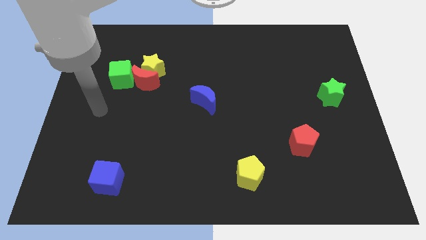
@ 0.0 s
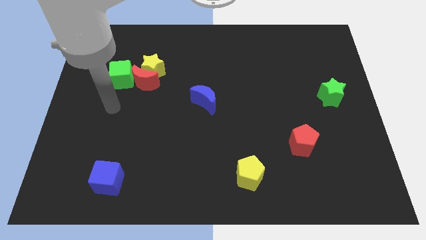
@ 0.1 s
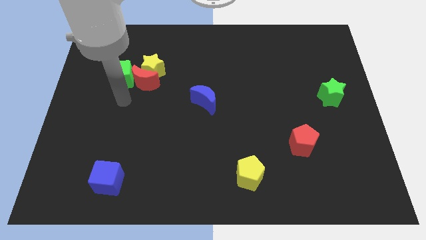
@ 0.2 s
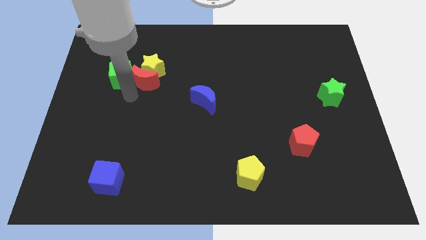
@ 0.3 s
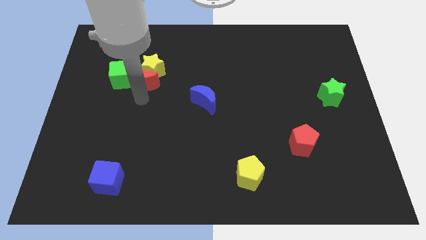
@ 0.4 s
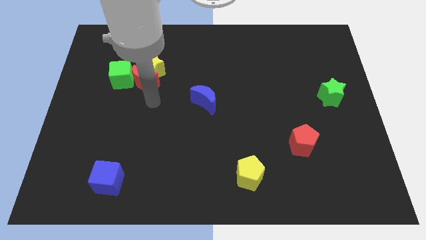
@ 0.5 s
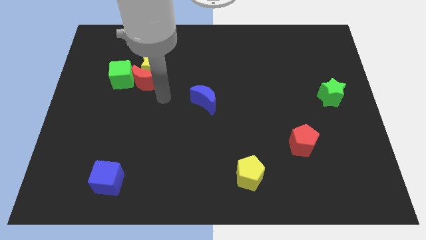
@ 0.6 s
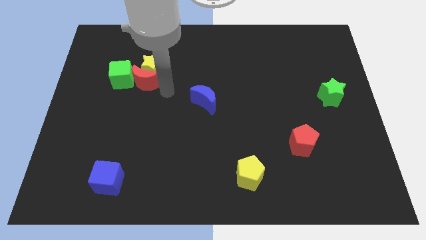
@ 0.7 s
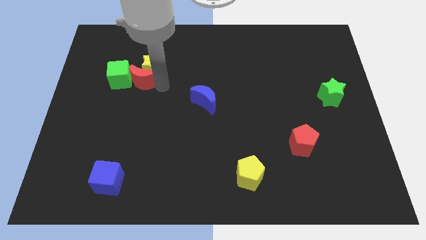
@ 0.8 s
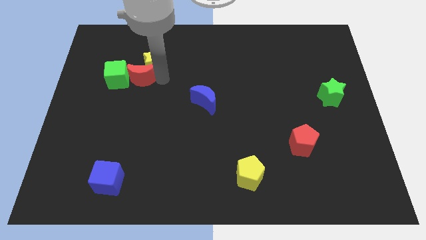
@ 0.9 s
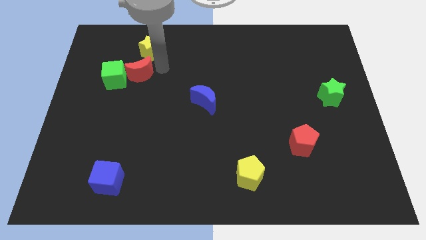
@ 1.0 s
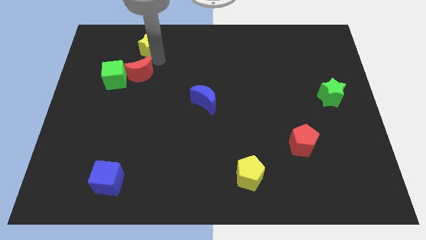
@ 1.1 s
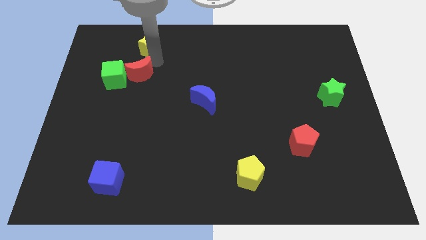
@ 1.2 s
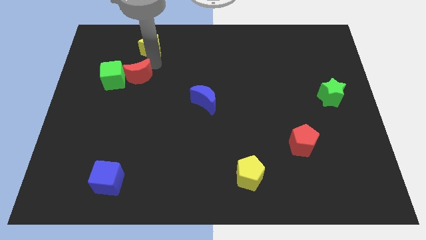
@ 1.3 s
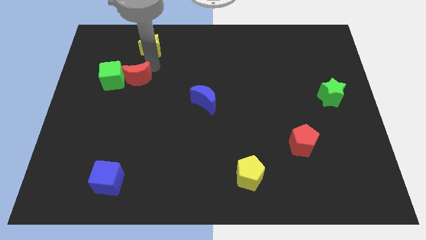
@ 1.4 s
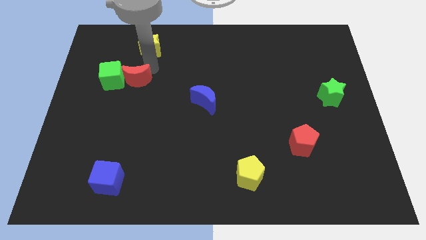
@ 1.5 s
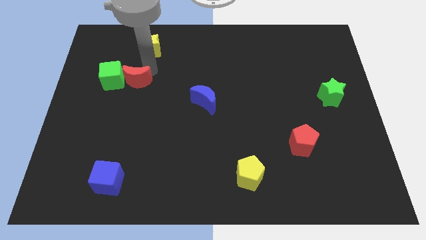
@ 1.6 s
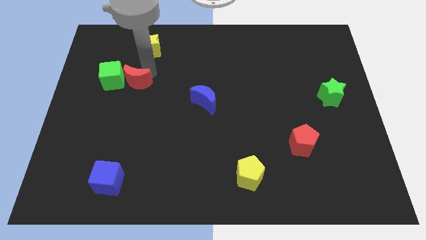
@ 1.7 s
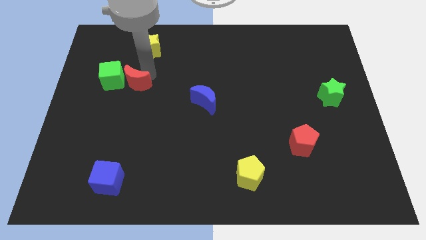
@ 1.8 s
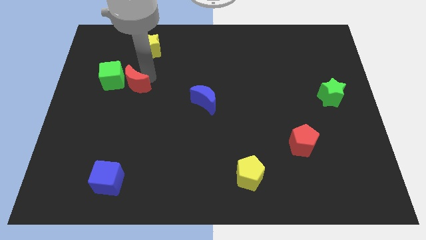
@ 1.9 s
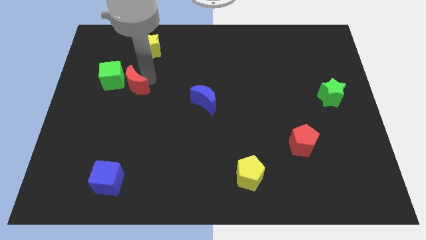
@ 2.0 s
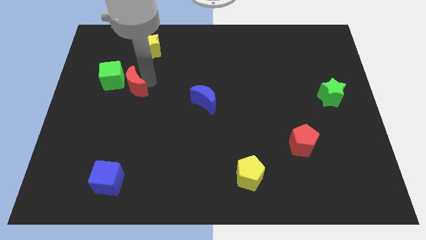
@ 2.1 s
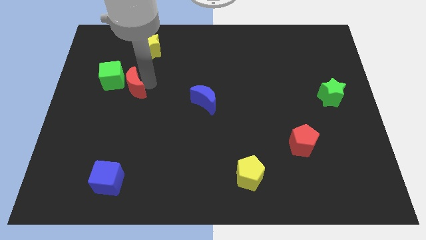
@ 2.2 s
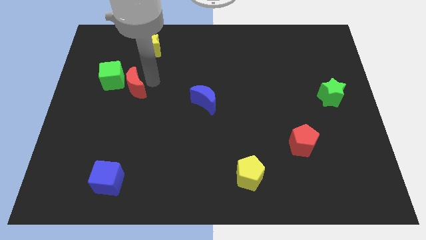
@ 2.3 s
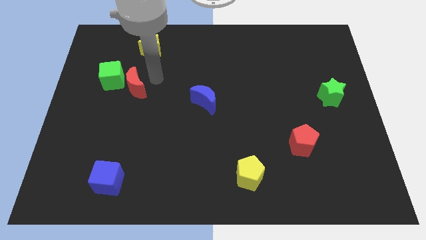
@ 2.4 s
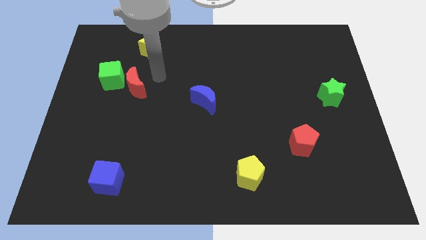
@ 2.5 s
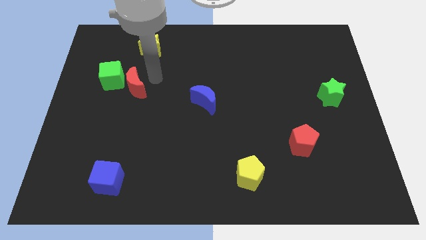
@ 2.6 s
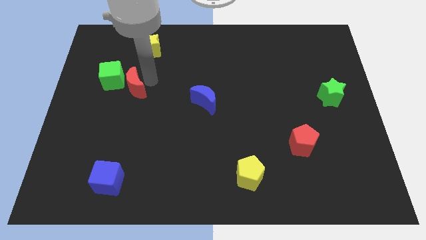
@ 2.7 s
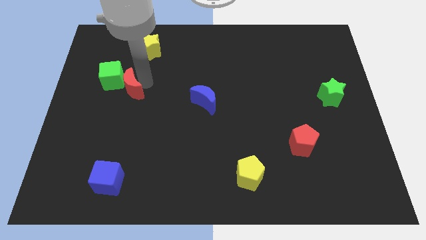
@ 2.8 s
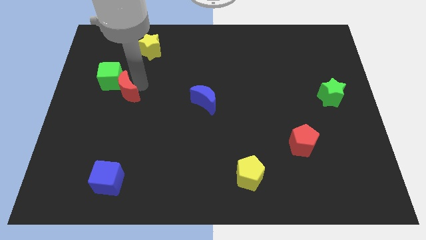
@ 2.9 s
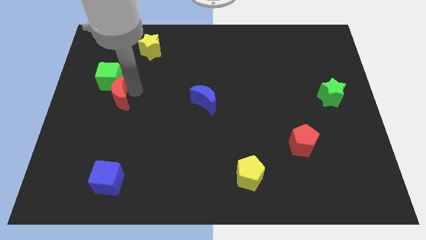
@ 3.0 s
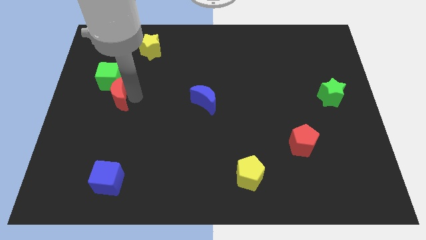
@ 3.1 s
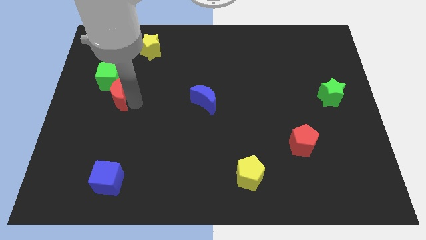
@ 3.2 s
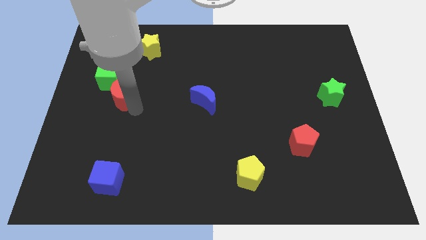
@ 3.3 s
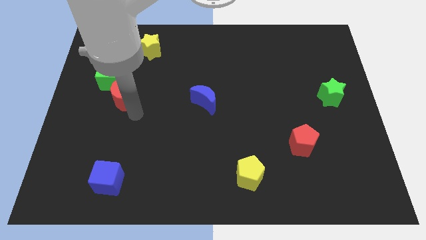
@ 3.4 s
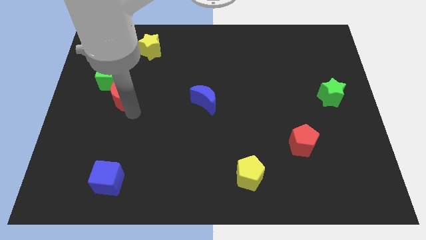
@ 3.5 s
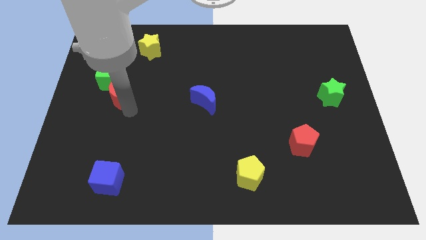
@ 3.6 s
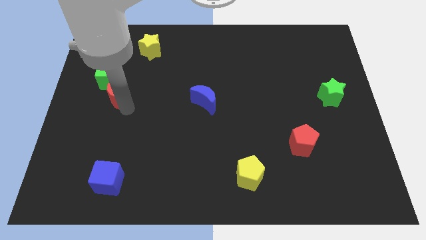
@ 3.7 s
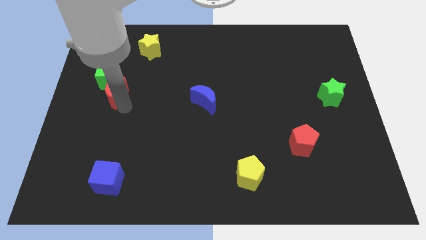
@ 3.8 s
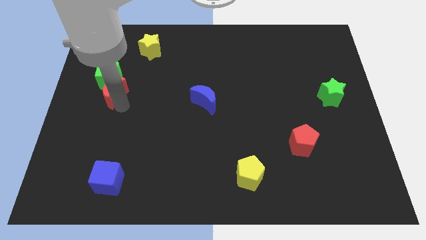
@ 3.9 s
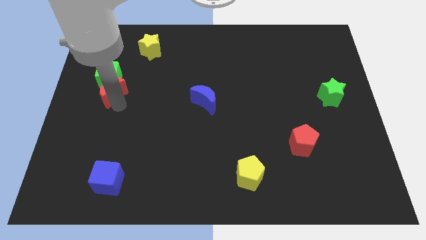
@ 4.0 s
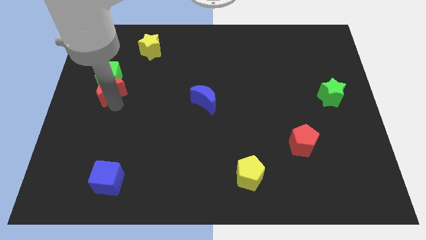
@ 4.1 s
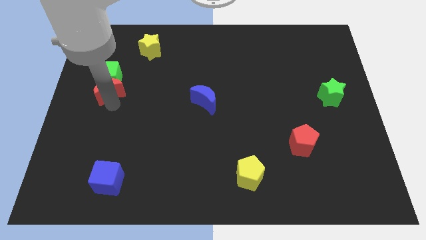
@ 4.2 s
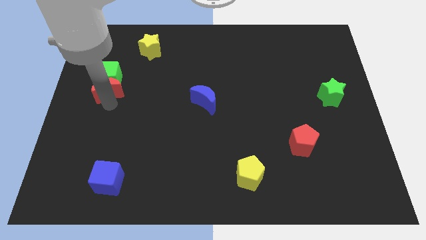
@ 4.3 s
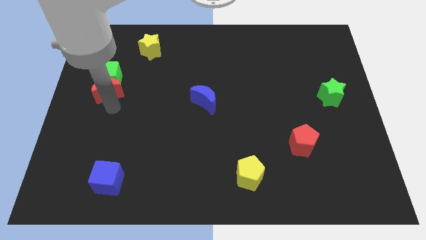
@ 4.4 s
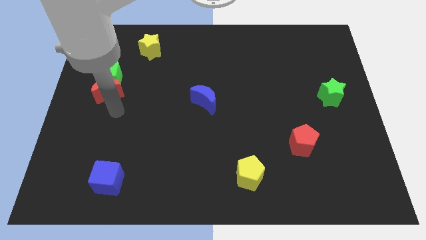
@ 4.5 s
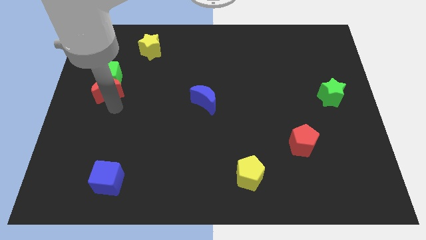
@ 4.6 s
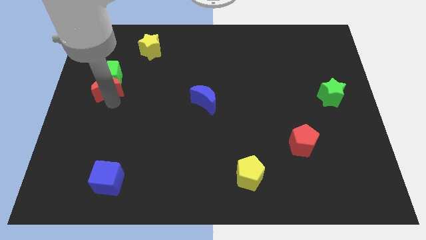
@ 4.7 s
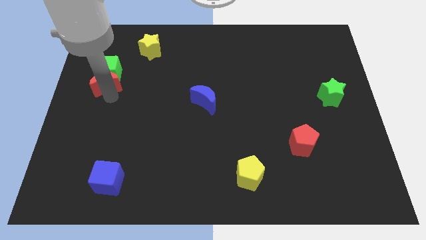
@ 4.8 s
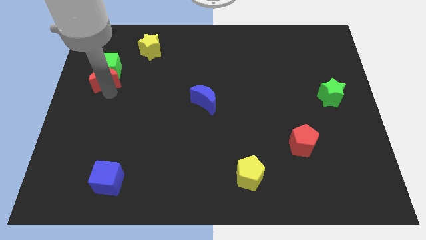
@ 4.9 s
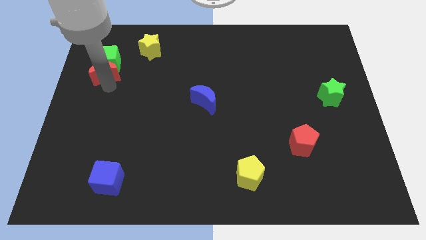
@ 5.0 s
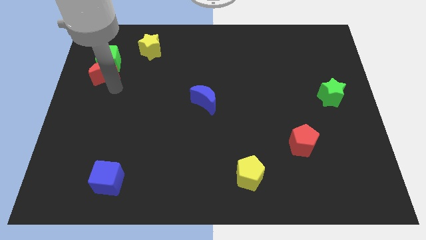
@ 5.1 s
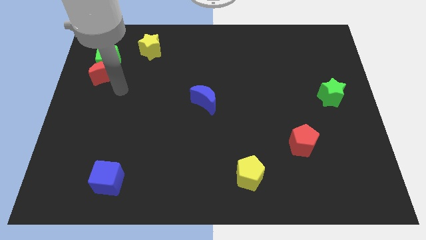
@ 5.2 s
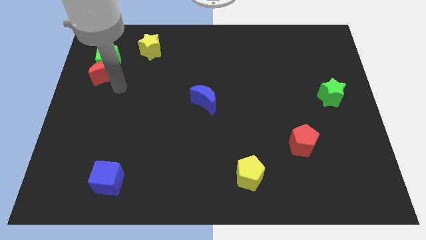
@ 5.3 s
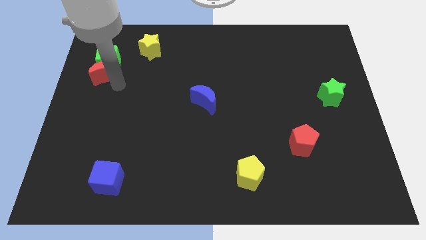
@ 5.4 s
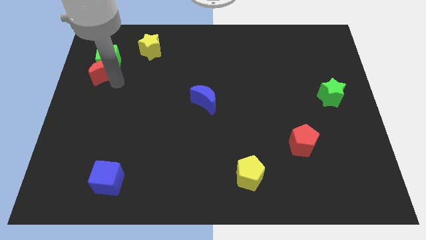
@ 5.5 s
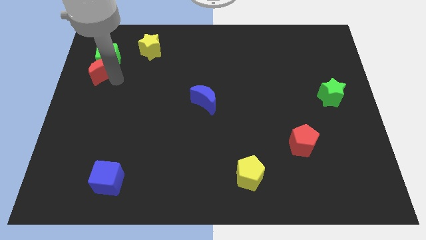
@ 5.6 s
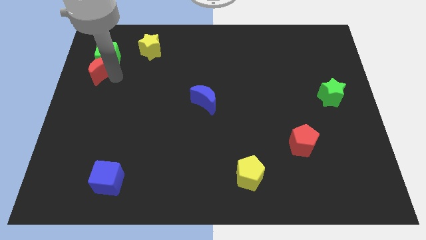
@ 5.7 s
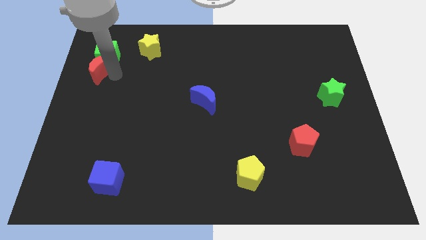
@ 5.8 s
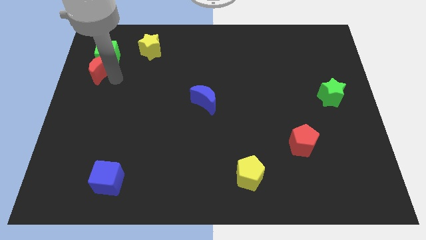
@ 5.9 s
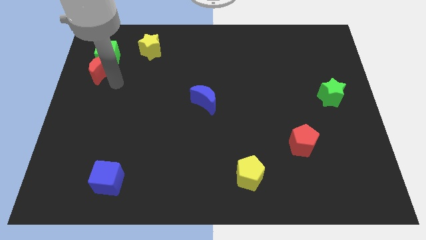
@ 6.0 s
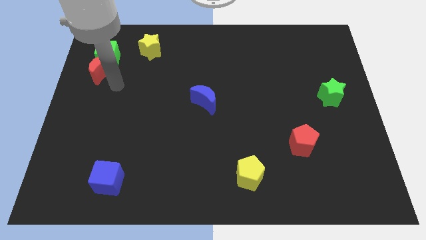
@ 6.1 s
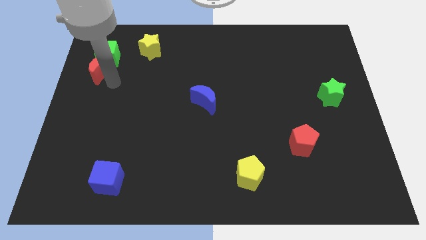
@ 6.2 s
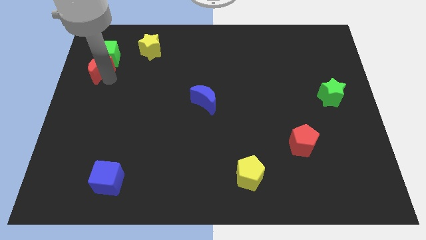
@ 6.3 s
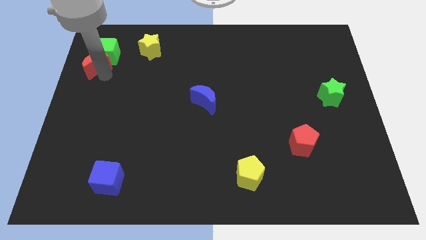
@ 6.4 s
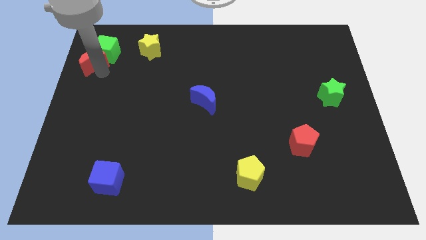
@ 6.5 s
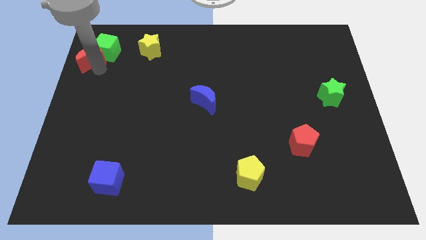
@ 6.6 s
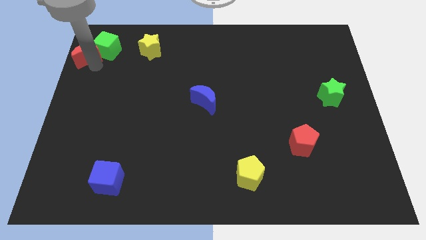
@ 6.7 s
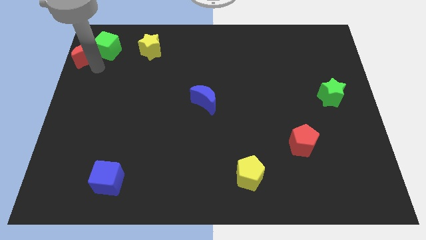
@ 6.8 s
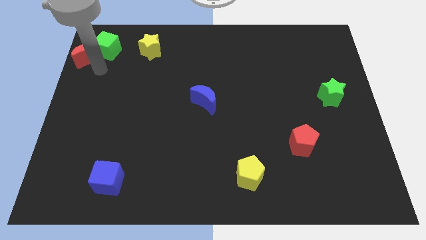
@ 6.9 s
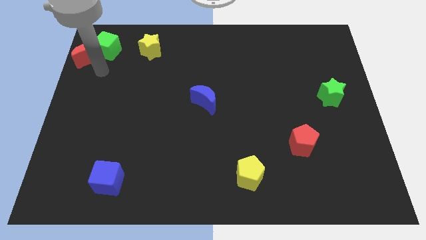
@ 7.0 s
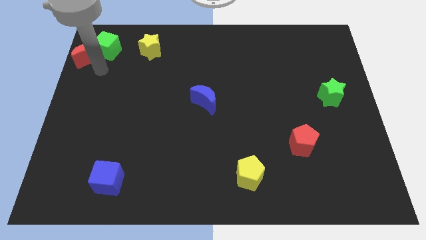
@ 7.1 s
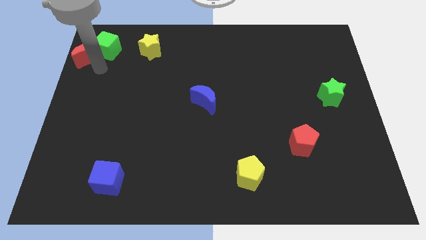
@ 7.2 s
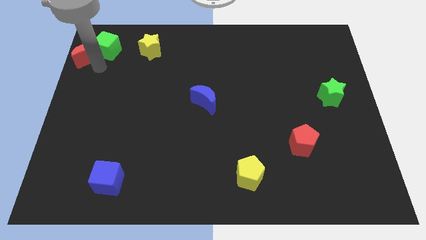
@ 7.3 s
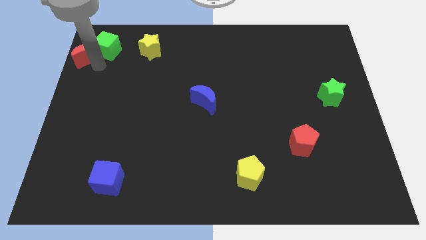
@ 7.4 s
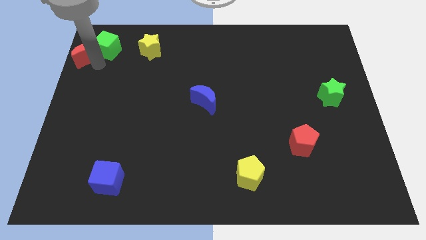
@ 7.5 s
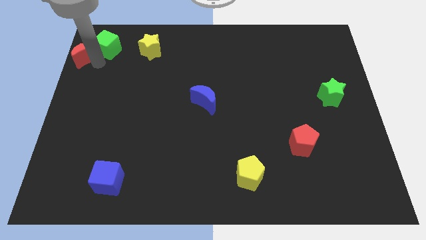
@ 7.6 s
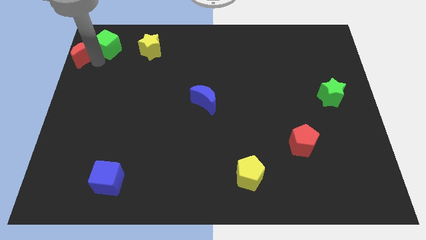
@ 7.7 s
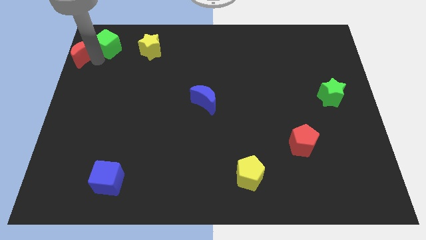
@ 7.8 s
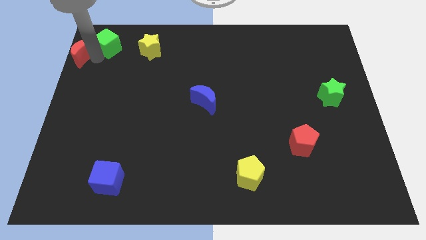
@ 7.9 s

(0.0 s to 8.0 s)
slide the red moon to the upper left corner
